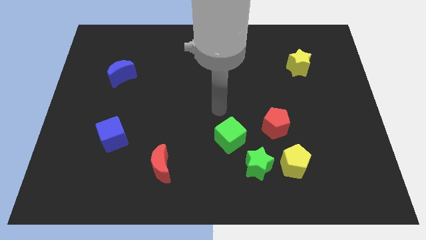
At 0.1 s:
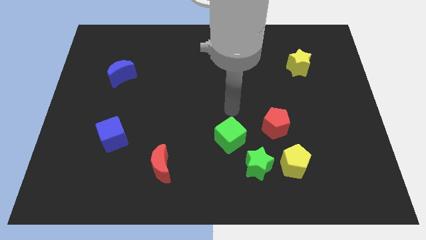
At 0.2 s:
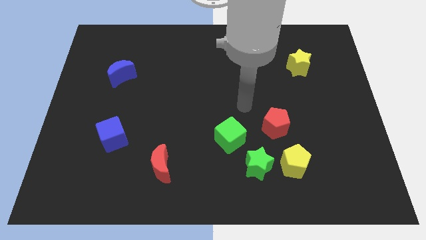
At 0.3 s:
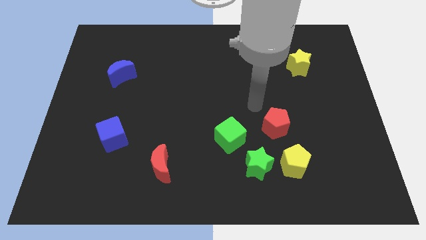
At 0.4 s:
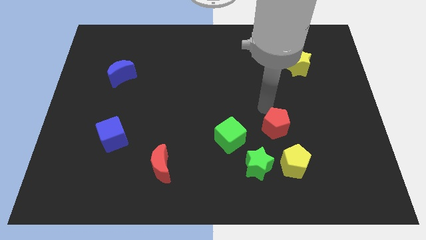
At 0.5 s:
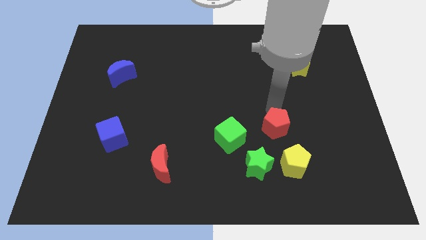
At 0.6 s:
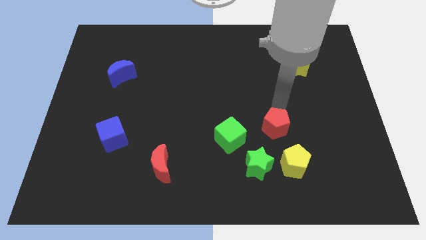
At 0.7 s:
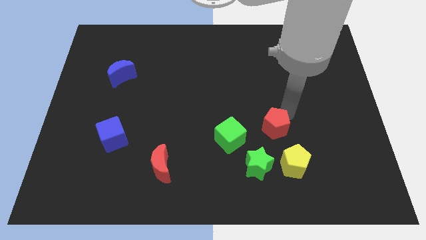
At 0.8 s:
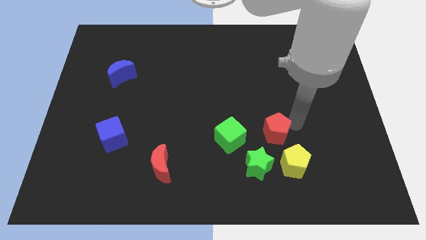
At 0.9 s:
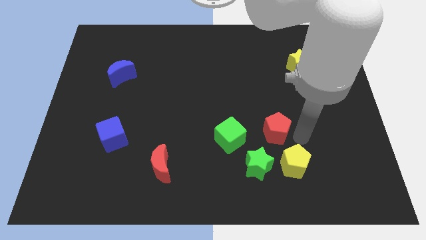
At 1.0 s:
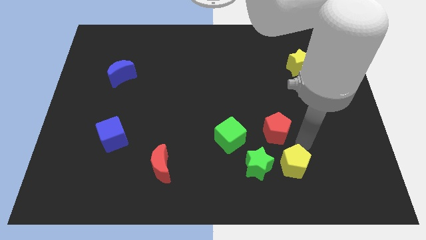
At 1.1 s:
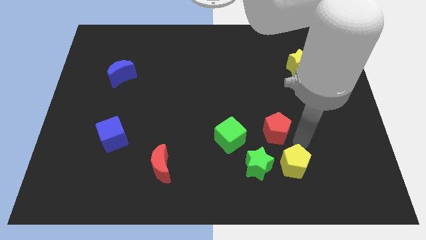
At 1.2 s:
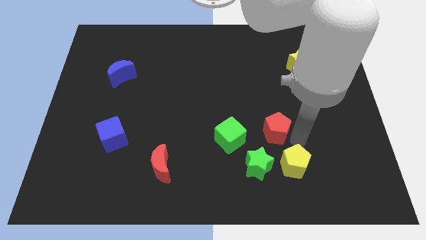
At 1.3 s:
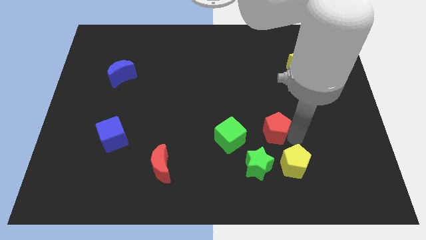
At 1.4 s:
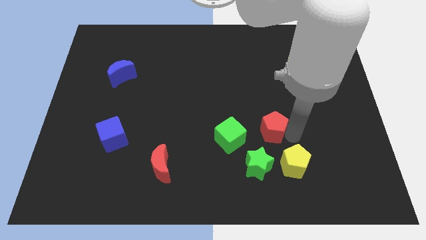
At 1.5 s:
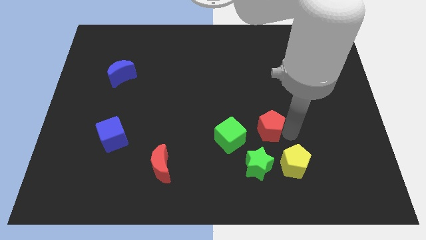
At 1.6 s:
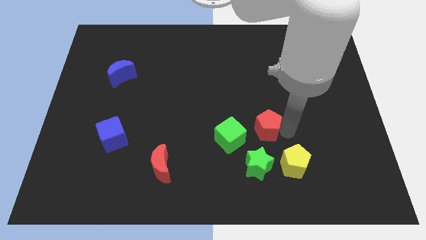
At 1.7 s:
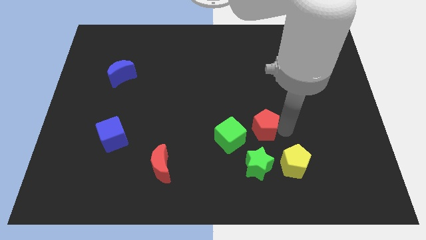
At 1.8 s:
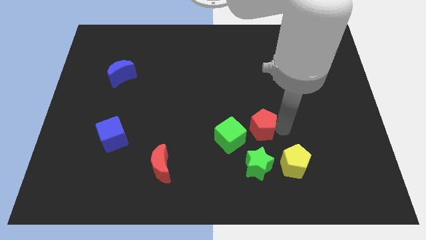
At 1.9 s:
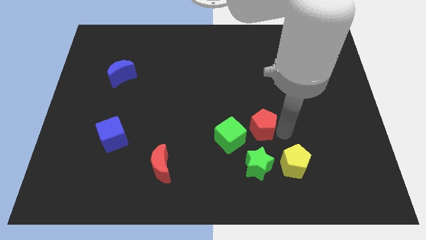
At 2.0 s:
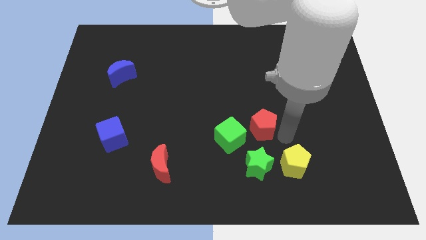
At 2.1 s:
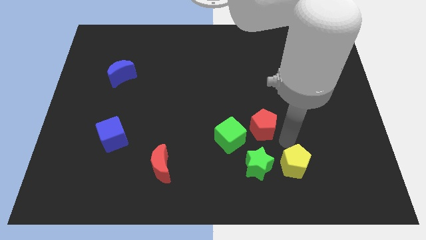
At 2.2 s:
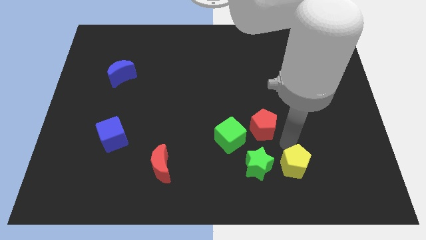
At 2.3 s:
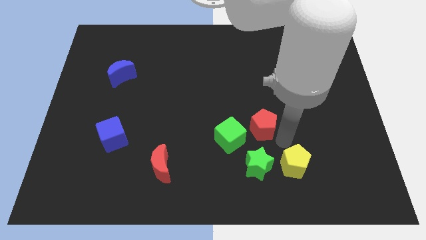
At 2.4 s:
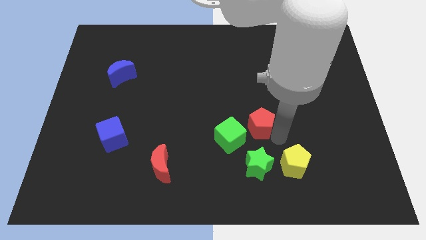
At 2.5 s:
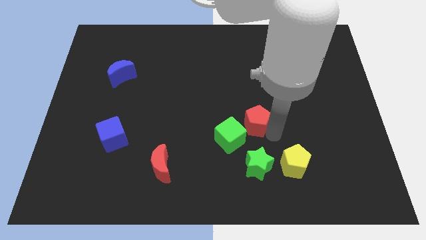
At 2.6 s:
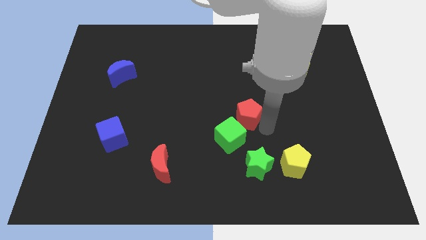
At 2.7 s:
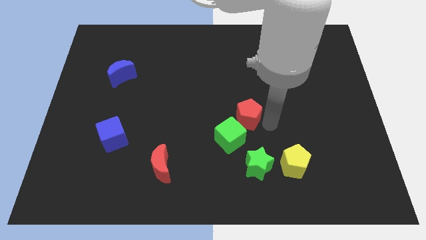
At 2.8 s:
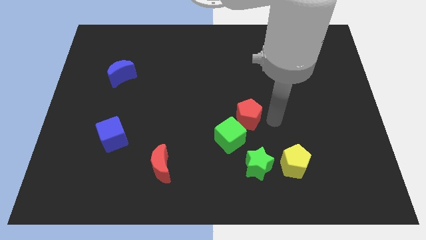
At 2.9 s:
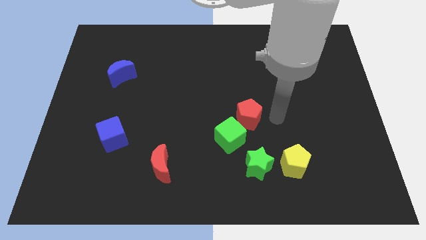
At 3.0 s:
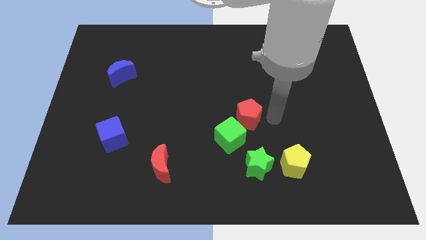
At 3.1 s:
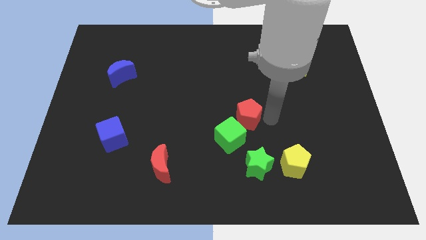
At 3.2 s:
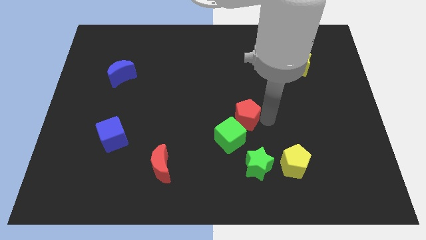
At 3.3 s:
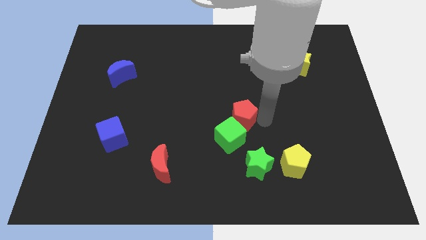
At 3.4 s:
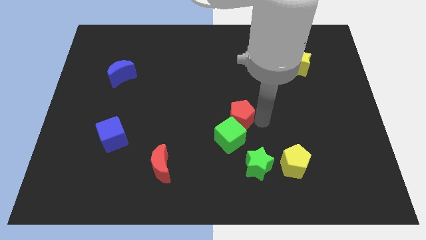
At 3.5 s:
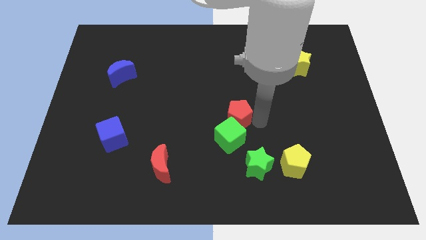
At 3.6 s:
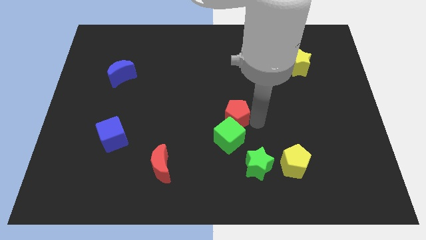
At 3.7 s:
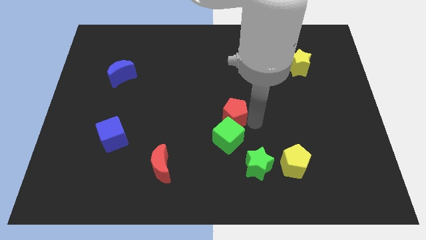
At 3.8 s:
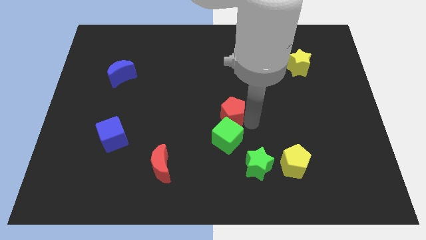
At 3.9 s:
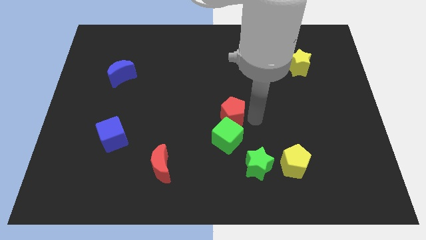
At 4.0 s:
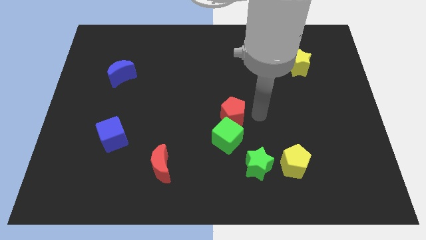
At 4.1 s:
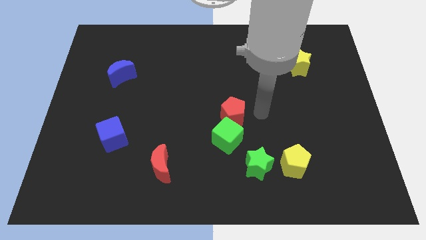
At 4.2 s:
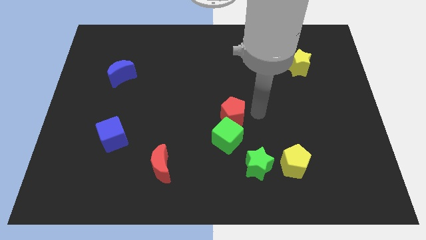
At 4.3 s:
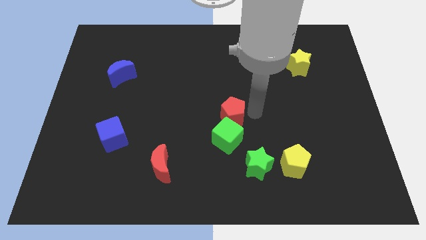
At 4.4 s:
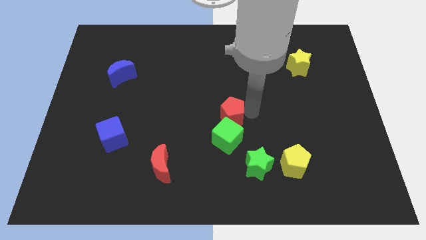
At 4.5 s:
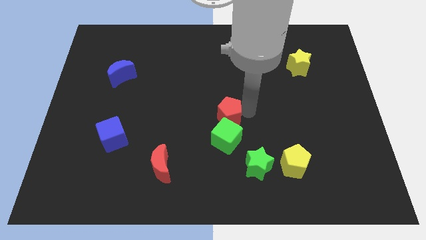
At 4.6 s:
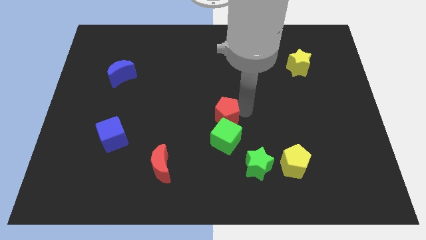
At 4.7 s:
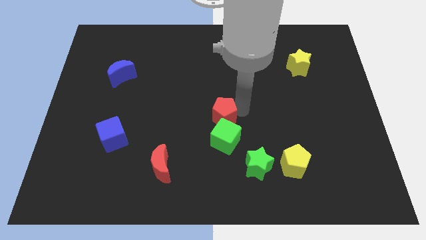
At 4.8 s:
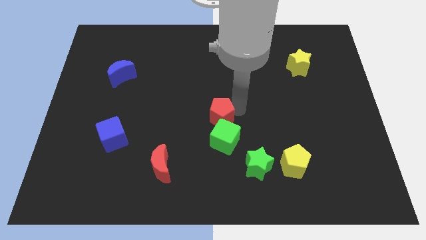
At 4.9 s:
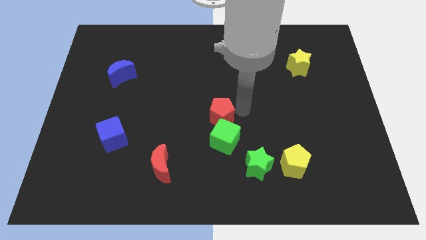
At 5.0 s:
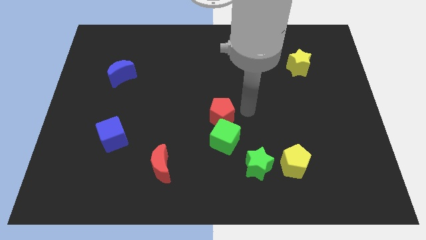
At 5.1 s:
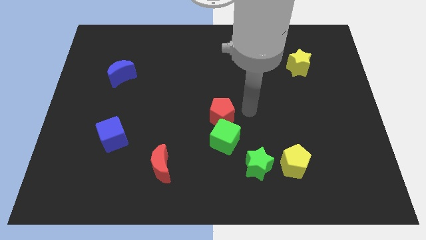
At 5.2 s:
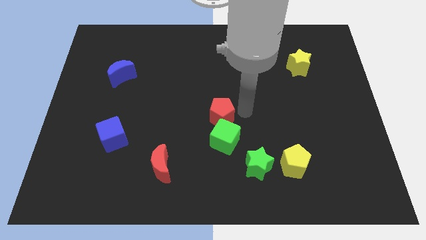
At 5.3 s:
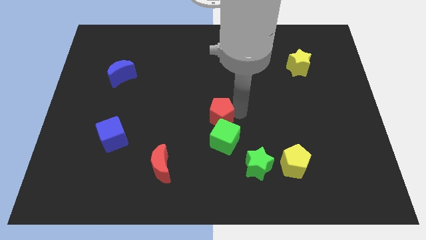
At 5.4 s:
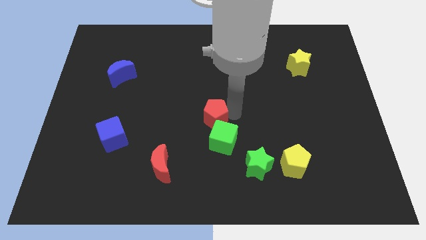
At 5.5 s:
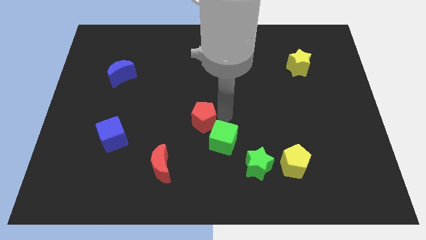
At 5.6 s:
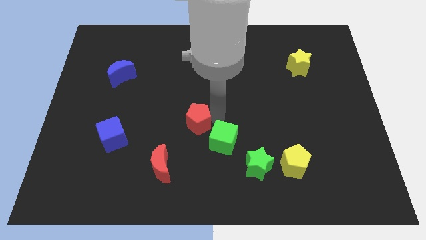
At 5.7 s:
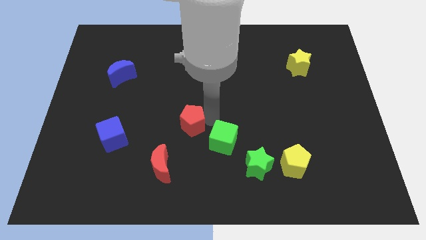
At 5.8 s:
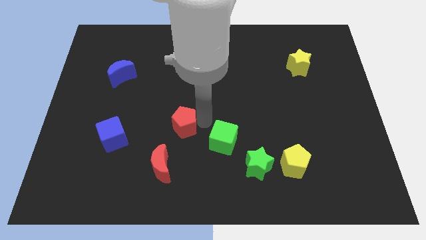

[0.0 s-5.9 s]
slide the red pentagon to the top side of the red moon

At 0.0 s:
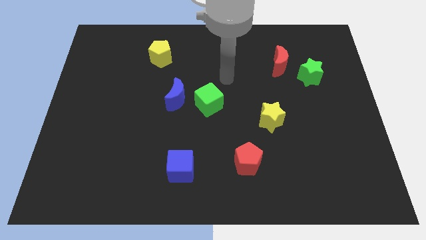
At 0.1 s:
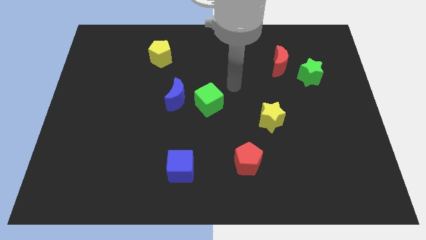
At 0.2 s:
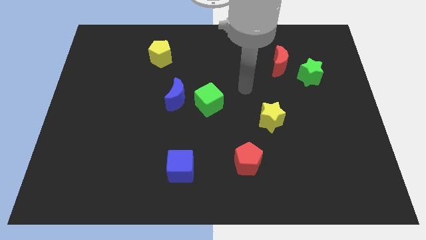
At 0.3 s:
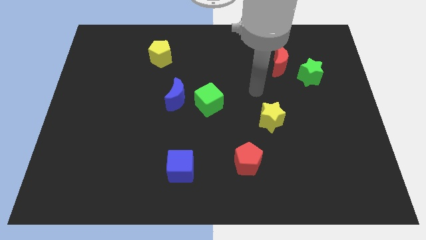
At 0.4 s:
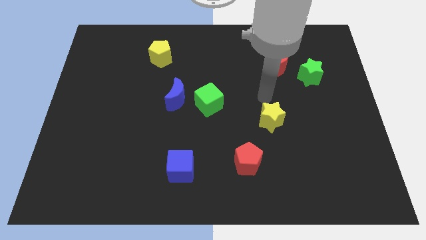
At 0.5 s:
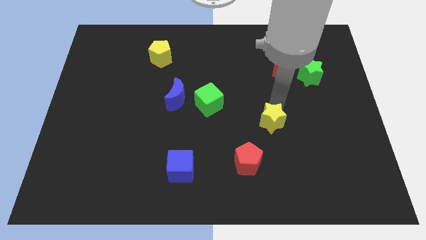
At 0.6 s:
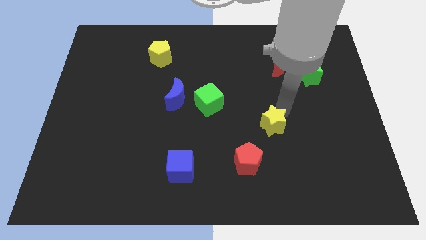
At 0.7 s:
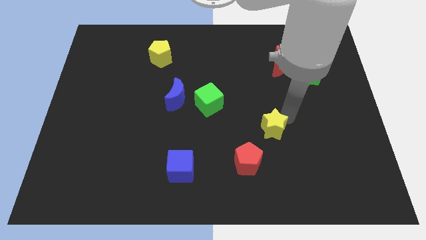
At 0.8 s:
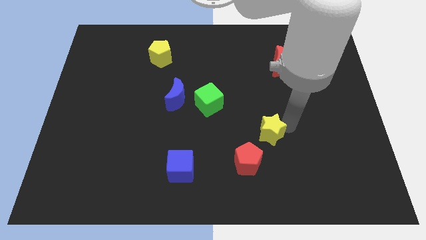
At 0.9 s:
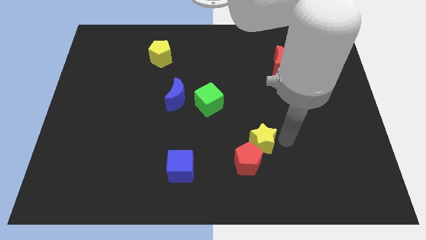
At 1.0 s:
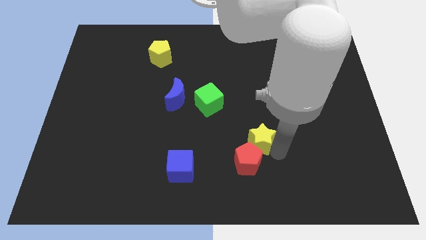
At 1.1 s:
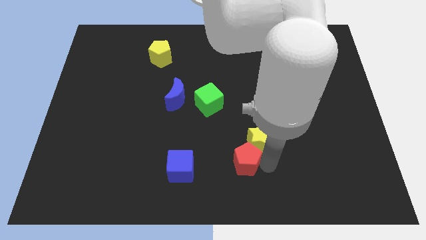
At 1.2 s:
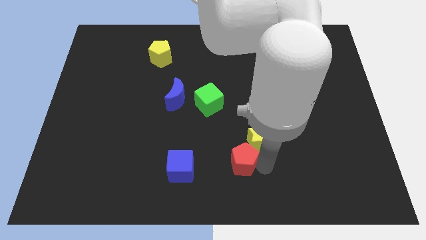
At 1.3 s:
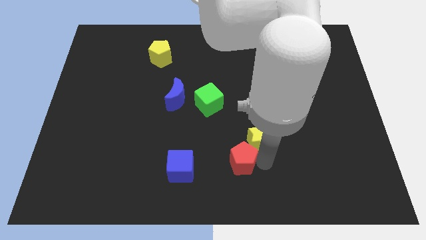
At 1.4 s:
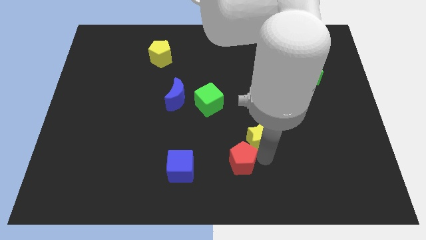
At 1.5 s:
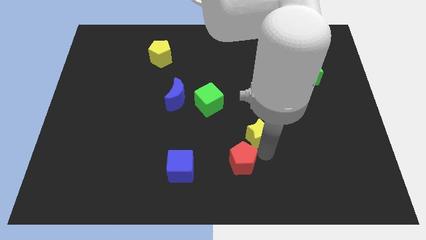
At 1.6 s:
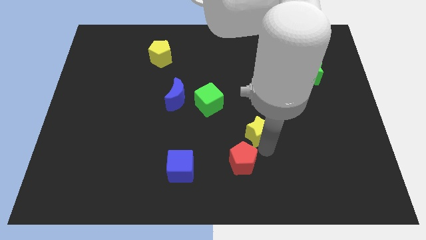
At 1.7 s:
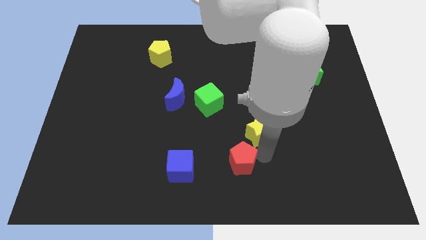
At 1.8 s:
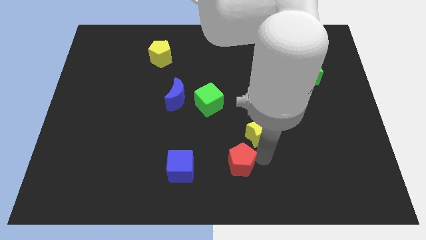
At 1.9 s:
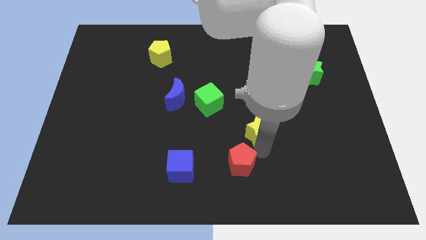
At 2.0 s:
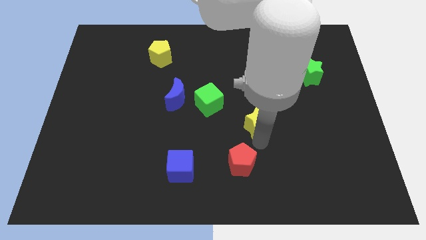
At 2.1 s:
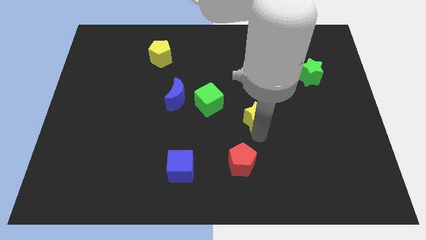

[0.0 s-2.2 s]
push the yellow star to the right of the green cube
